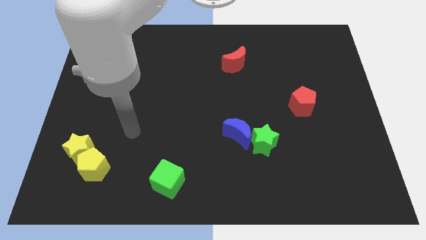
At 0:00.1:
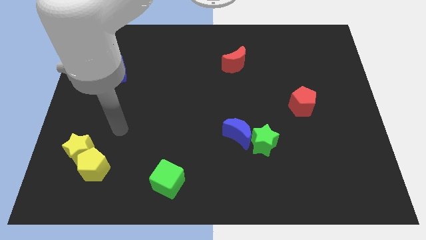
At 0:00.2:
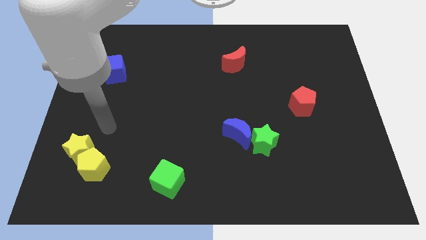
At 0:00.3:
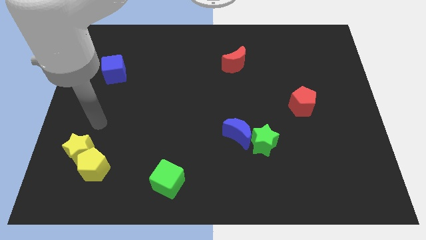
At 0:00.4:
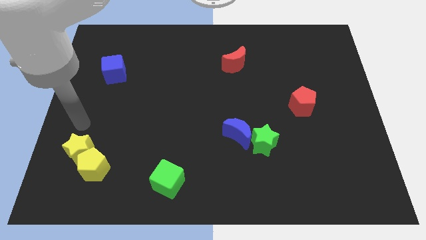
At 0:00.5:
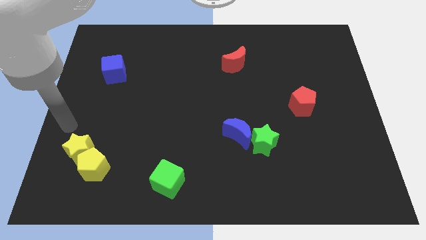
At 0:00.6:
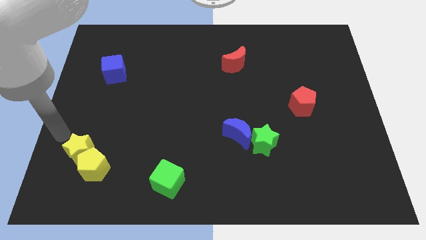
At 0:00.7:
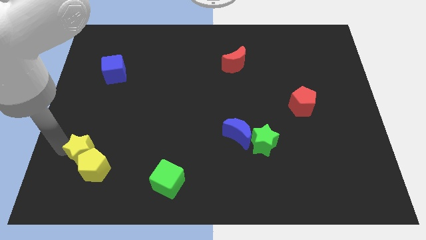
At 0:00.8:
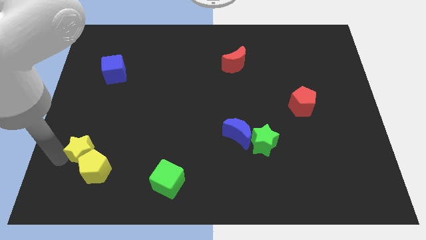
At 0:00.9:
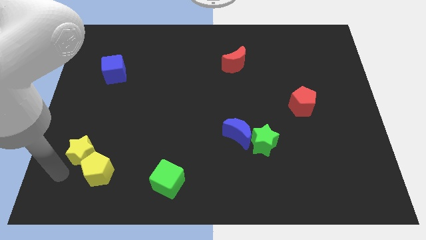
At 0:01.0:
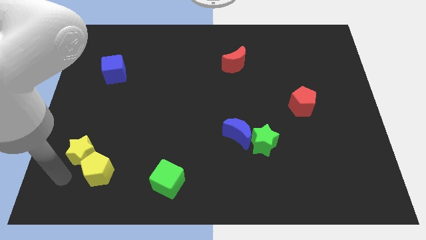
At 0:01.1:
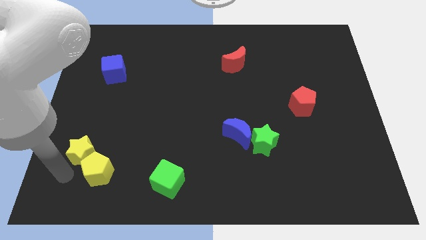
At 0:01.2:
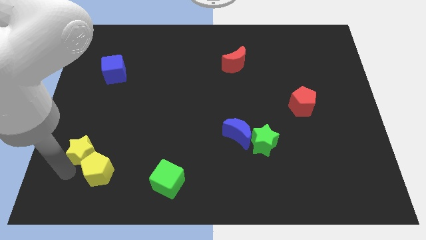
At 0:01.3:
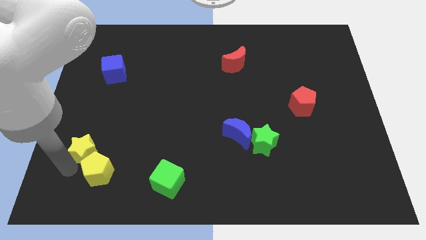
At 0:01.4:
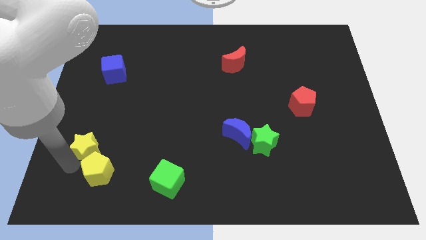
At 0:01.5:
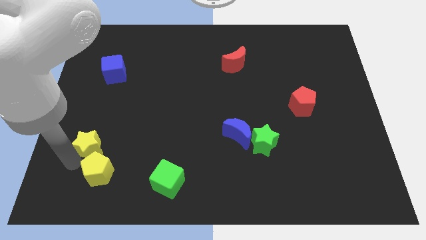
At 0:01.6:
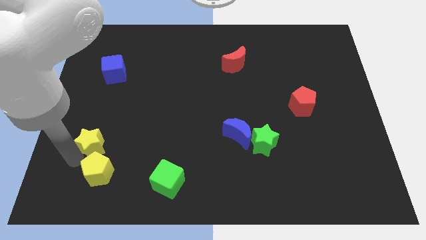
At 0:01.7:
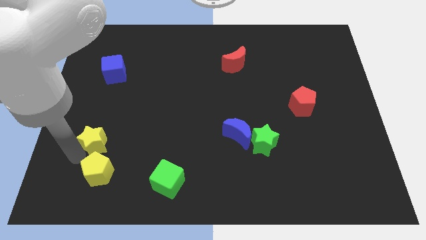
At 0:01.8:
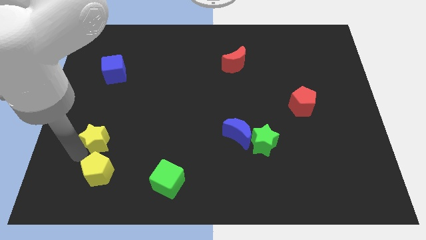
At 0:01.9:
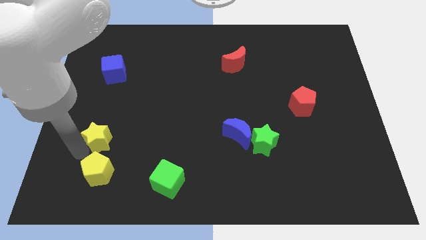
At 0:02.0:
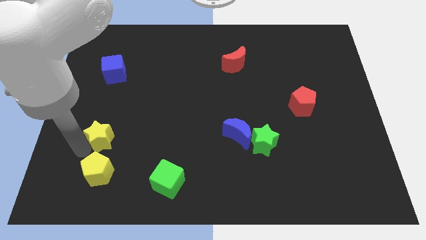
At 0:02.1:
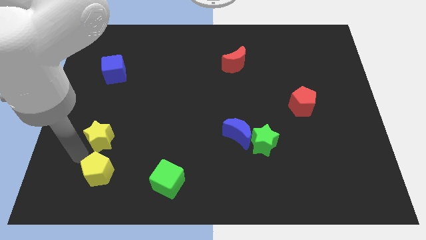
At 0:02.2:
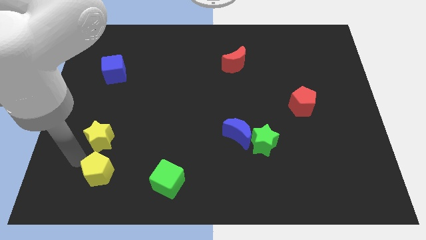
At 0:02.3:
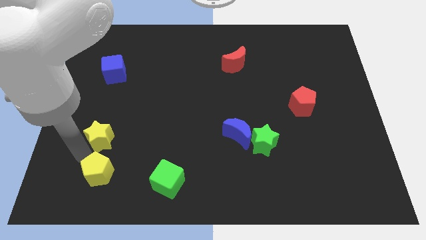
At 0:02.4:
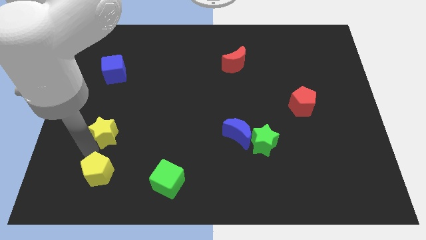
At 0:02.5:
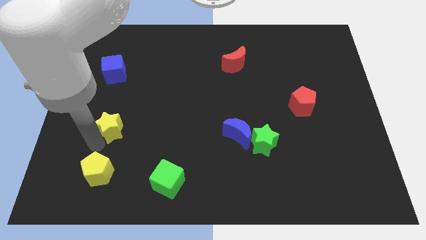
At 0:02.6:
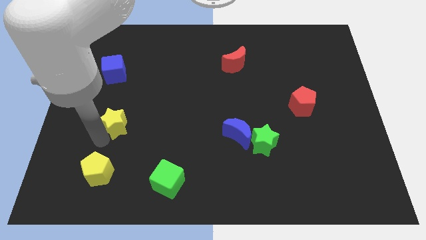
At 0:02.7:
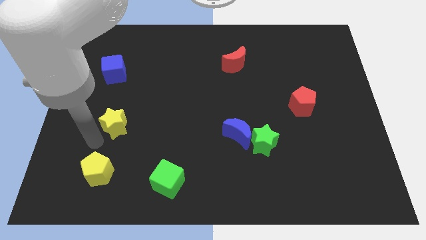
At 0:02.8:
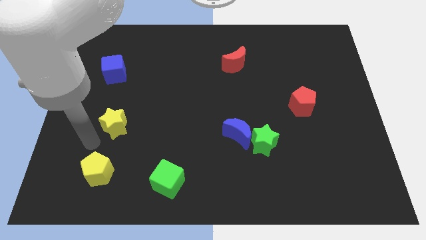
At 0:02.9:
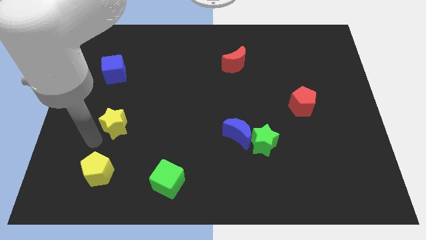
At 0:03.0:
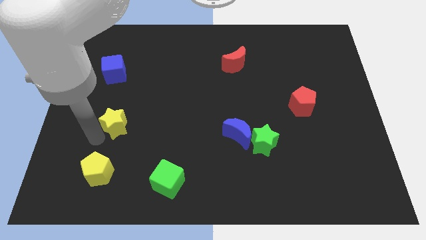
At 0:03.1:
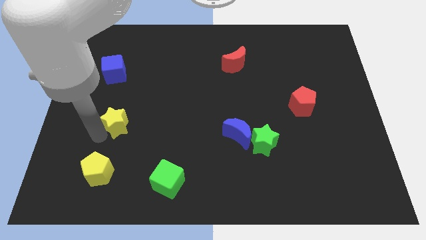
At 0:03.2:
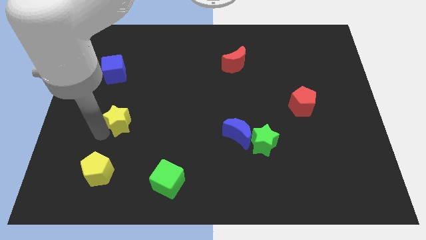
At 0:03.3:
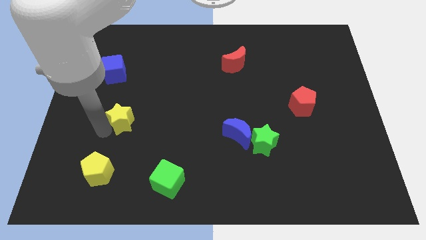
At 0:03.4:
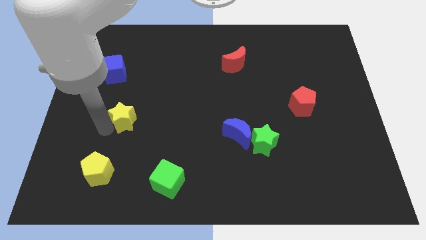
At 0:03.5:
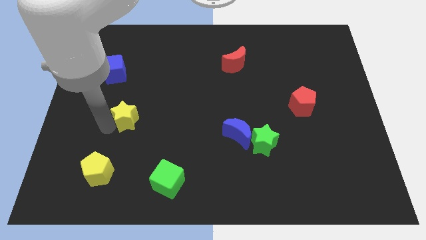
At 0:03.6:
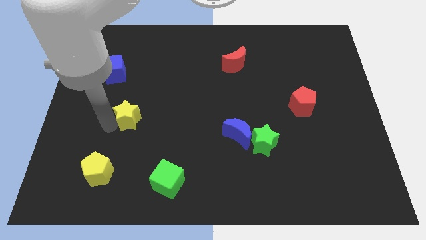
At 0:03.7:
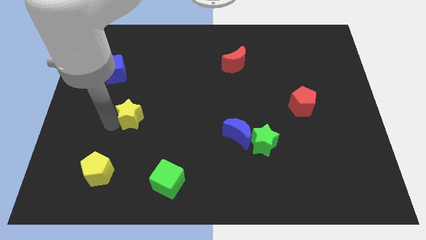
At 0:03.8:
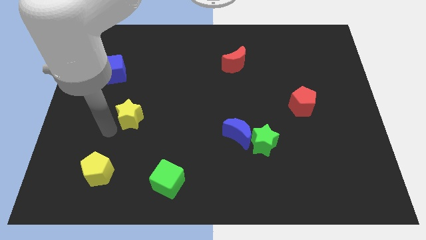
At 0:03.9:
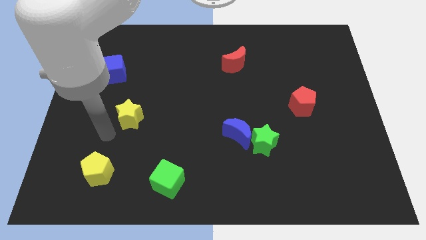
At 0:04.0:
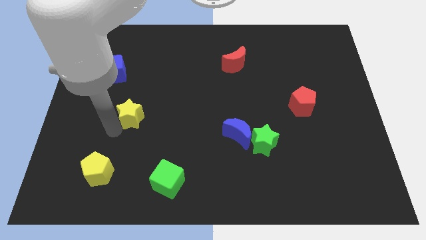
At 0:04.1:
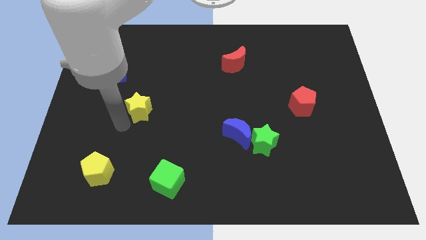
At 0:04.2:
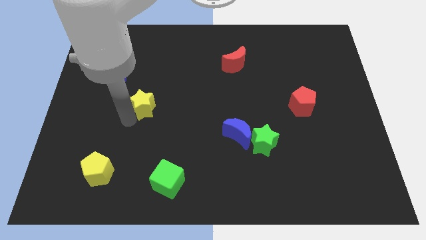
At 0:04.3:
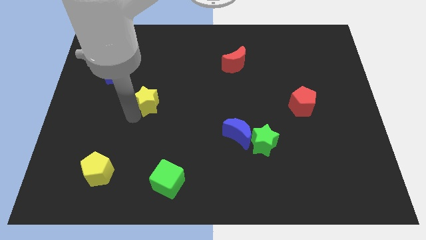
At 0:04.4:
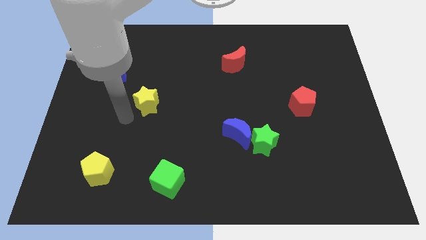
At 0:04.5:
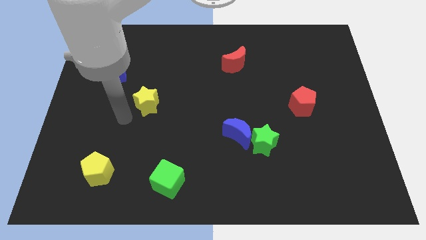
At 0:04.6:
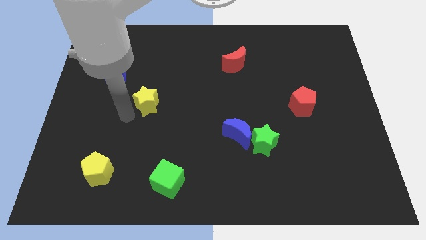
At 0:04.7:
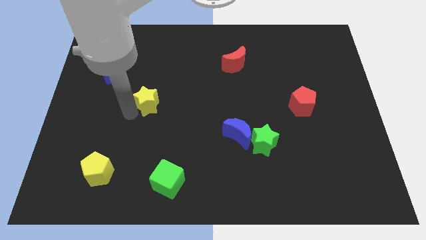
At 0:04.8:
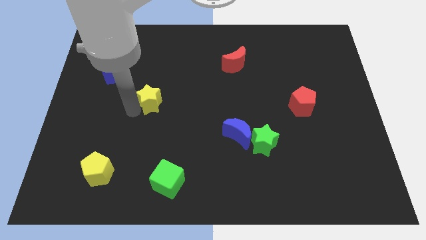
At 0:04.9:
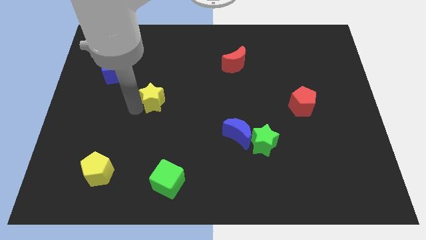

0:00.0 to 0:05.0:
move the yellow star upwards and then right

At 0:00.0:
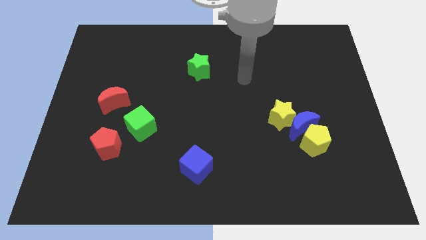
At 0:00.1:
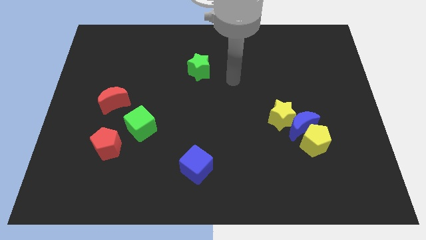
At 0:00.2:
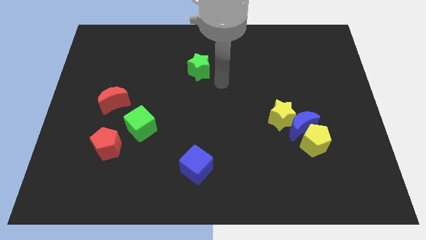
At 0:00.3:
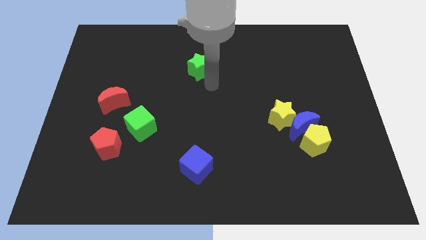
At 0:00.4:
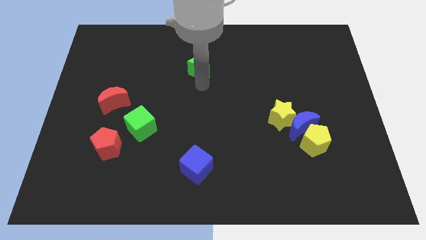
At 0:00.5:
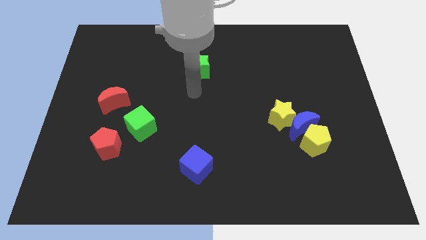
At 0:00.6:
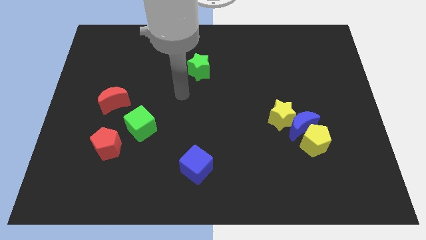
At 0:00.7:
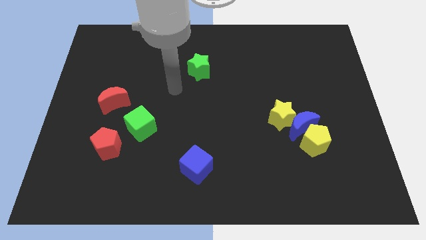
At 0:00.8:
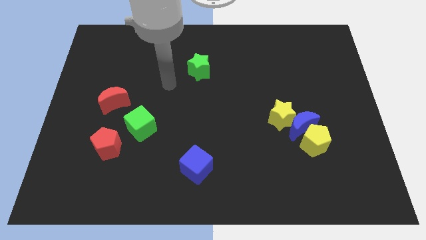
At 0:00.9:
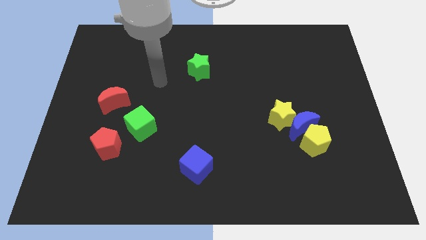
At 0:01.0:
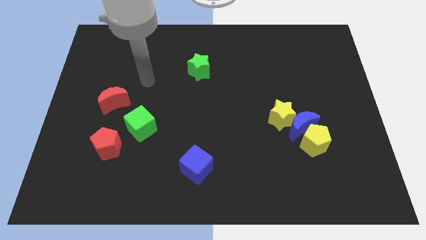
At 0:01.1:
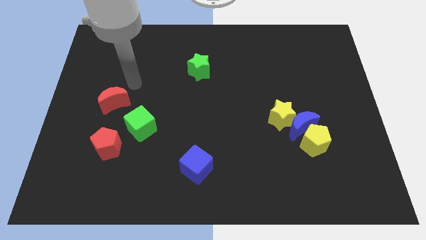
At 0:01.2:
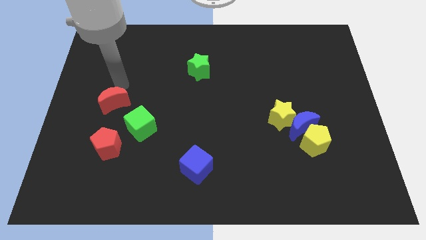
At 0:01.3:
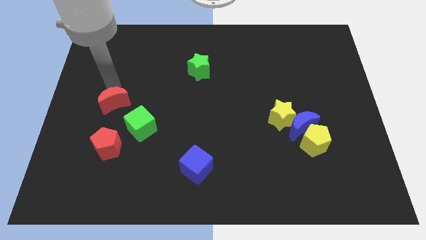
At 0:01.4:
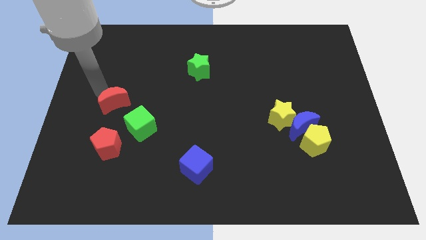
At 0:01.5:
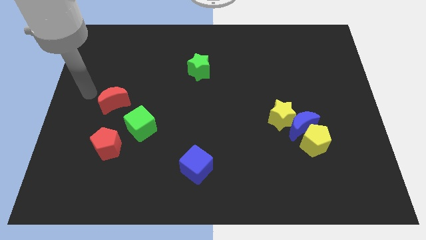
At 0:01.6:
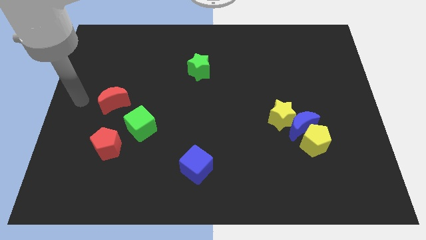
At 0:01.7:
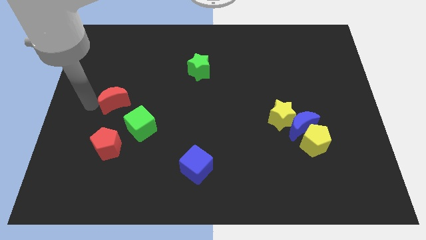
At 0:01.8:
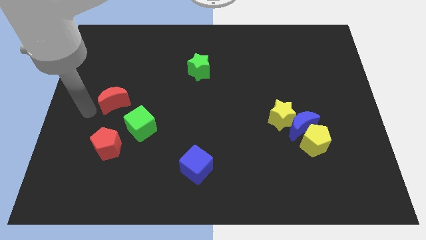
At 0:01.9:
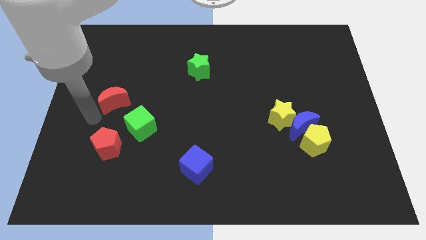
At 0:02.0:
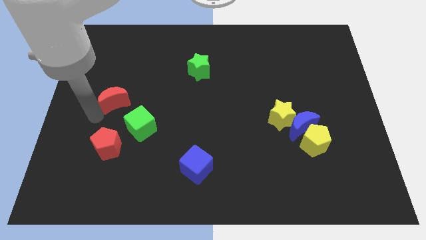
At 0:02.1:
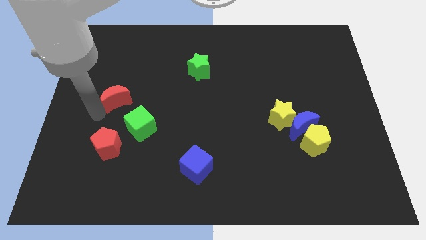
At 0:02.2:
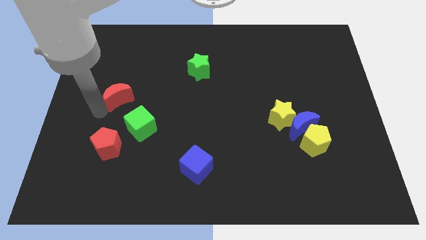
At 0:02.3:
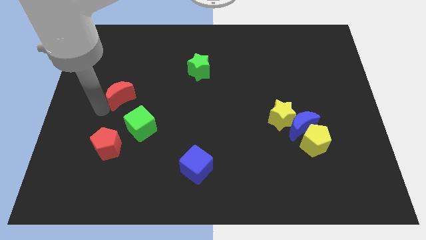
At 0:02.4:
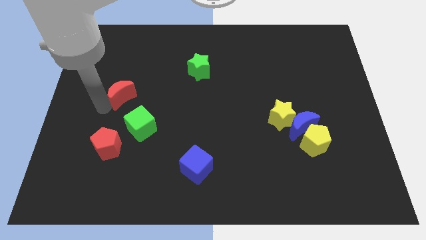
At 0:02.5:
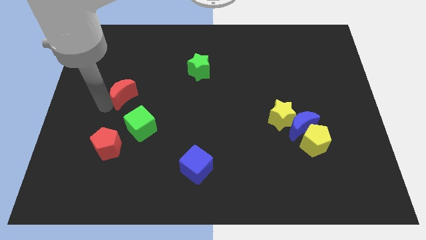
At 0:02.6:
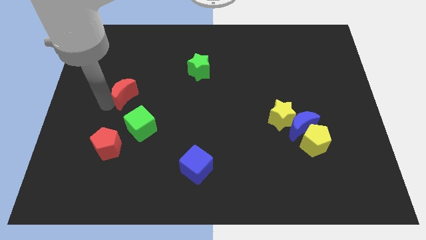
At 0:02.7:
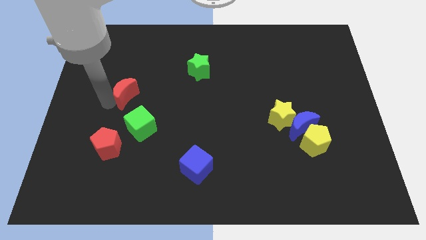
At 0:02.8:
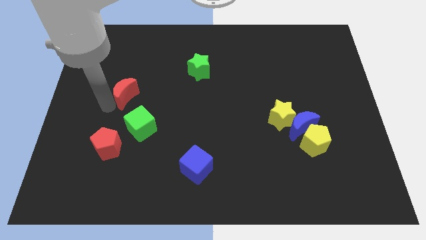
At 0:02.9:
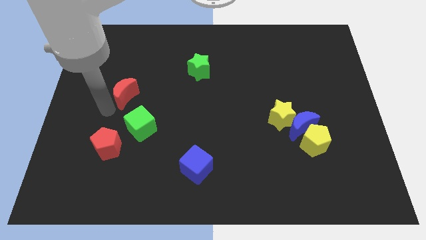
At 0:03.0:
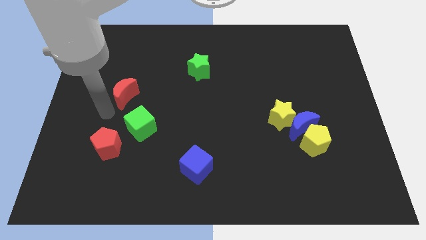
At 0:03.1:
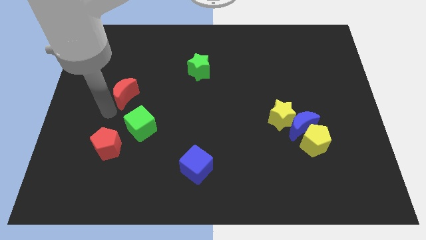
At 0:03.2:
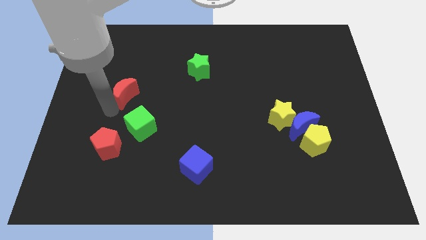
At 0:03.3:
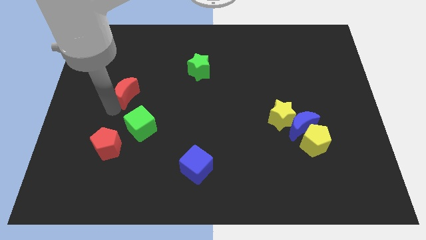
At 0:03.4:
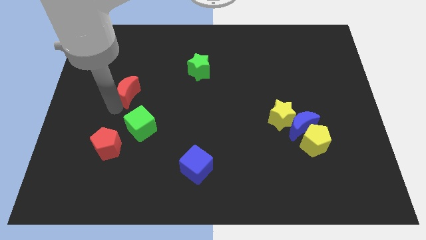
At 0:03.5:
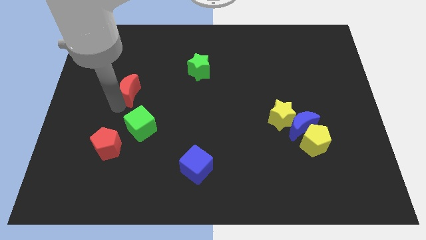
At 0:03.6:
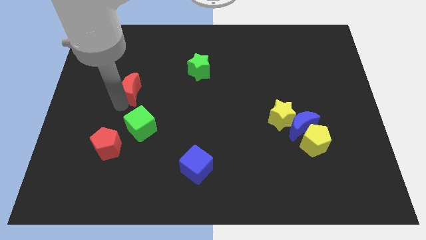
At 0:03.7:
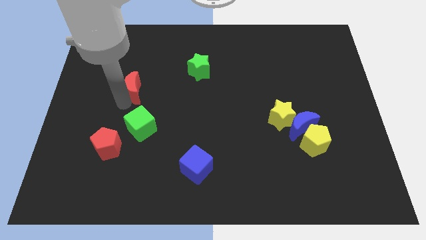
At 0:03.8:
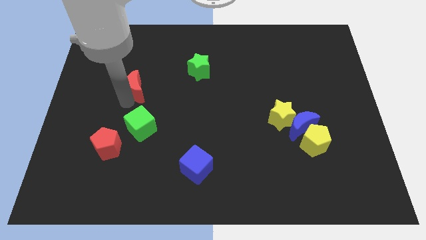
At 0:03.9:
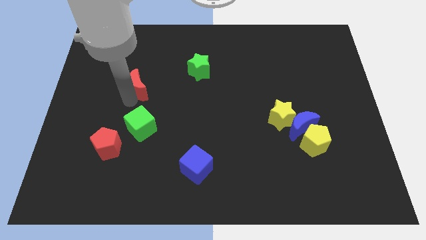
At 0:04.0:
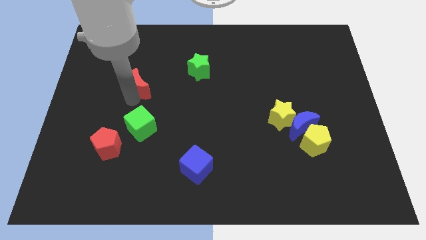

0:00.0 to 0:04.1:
slightly push the red moon up and to the right diagonally
